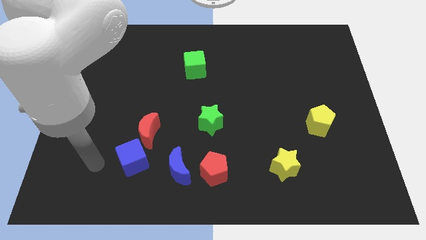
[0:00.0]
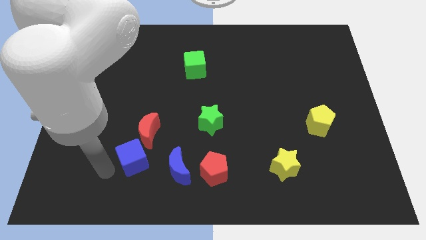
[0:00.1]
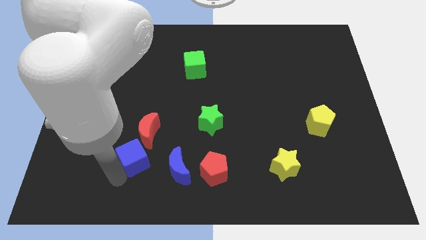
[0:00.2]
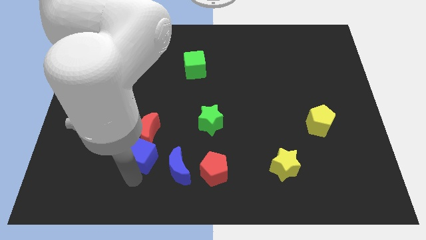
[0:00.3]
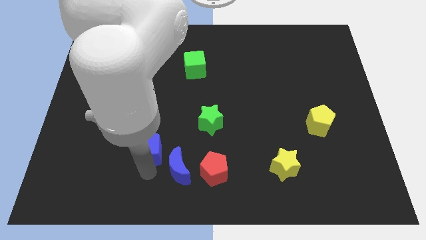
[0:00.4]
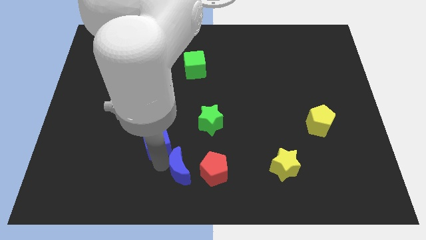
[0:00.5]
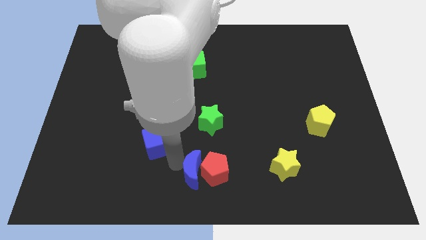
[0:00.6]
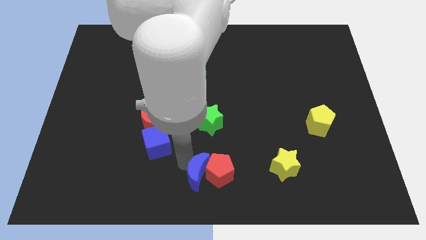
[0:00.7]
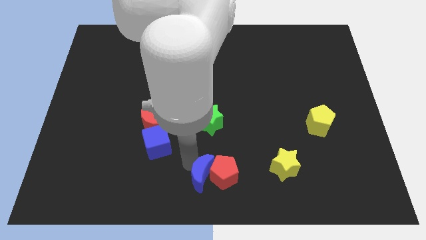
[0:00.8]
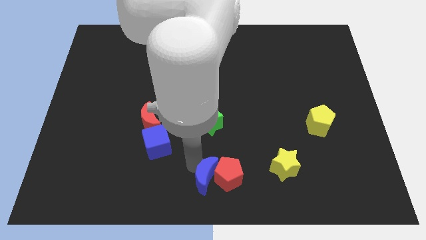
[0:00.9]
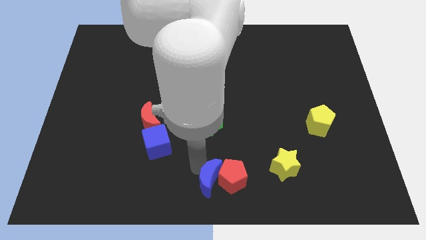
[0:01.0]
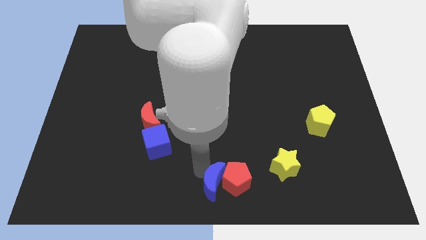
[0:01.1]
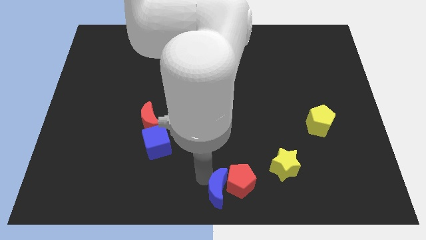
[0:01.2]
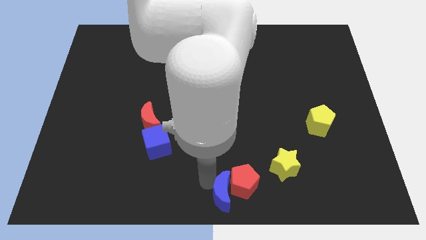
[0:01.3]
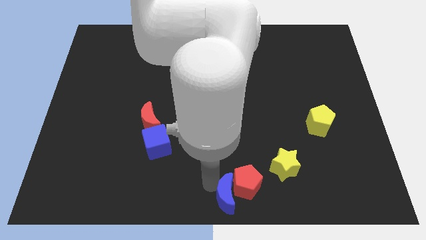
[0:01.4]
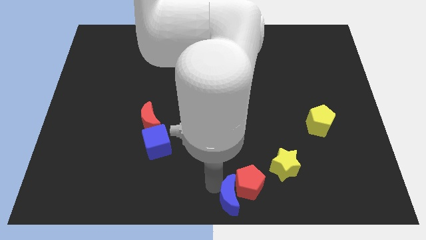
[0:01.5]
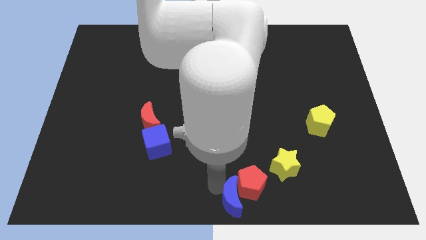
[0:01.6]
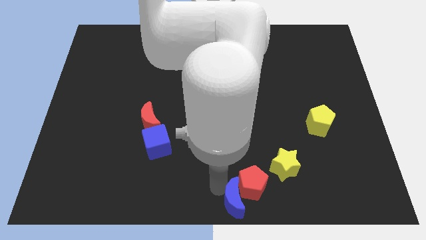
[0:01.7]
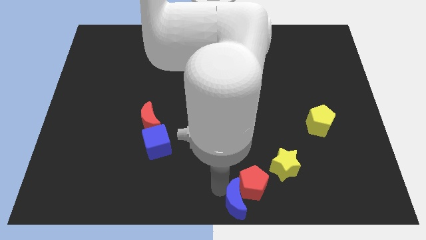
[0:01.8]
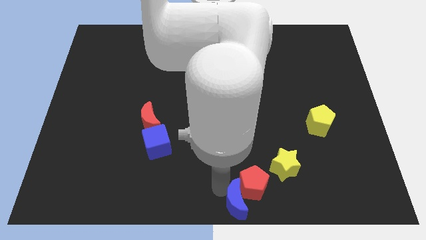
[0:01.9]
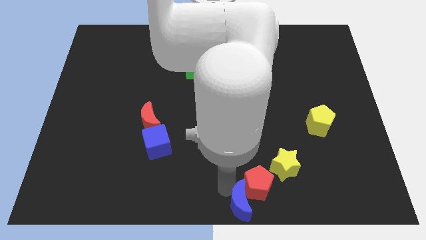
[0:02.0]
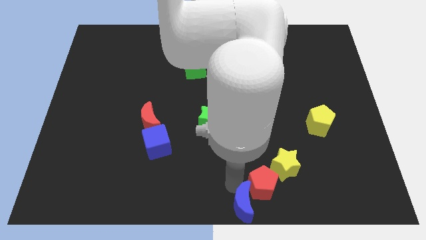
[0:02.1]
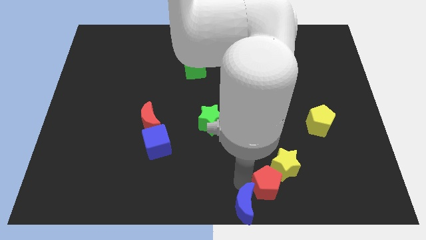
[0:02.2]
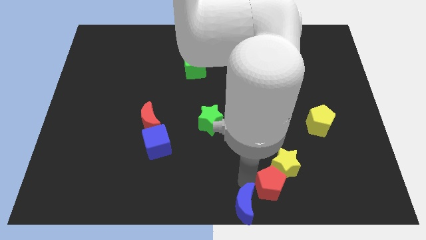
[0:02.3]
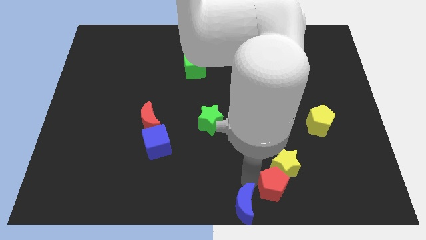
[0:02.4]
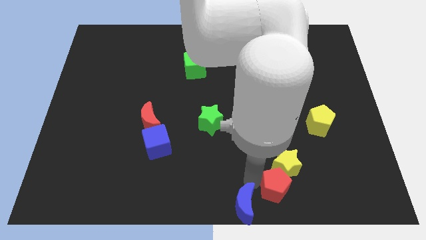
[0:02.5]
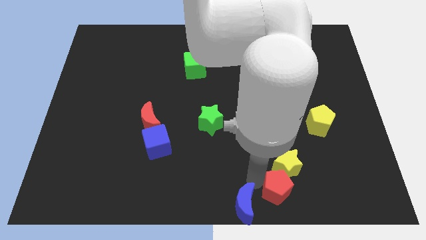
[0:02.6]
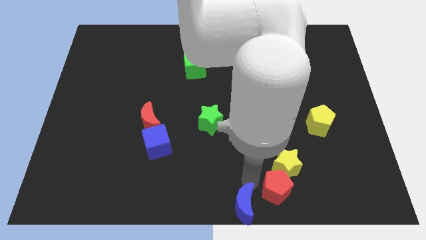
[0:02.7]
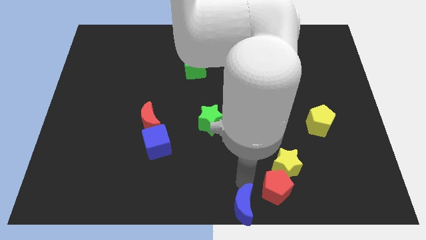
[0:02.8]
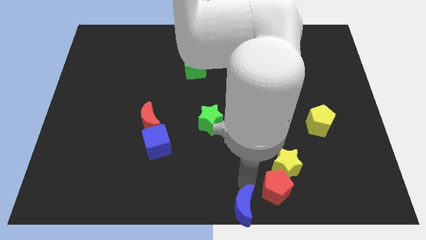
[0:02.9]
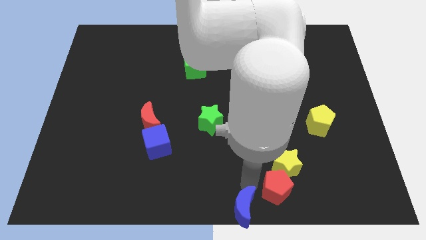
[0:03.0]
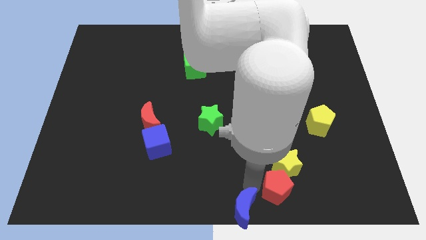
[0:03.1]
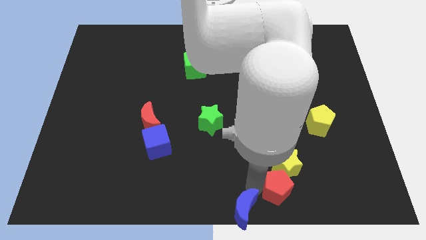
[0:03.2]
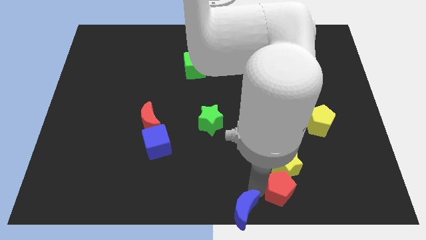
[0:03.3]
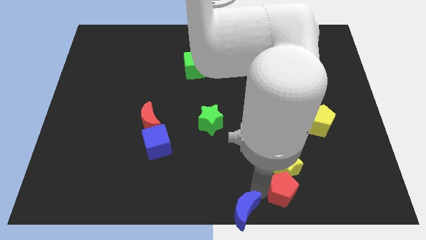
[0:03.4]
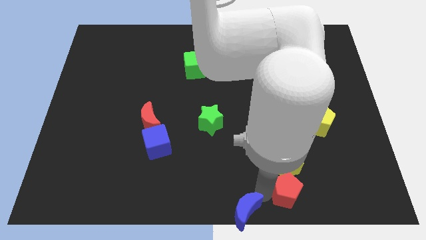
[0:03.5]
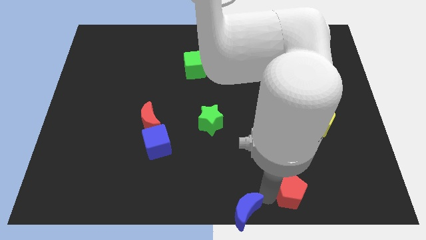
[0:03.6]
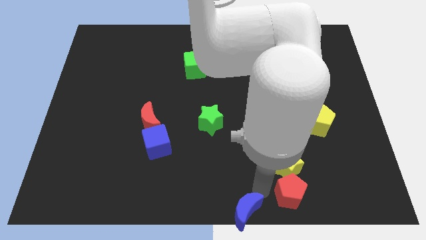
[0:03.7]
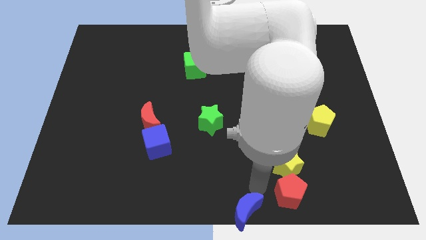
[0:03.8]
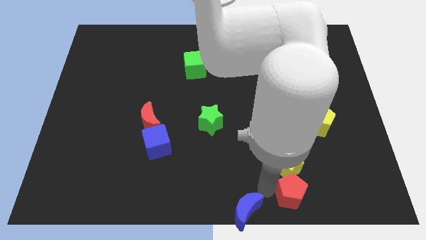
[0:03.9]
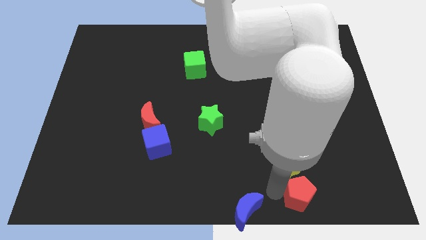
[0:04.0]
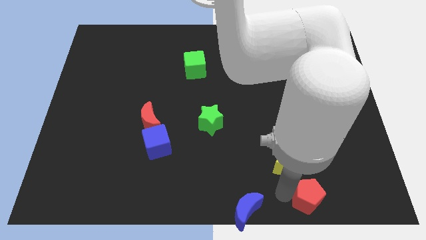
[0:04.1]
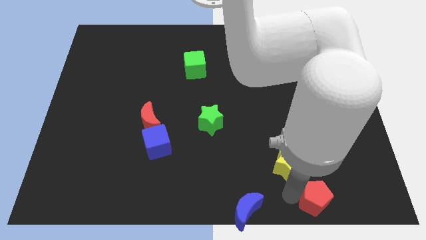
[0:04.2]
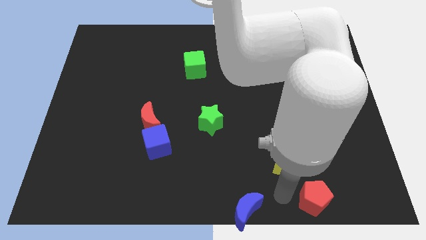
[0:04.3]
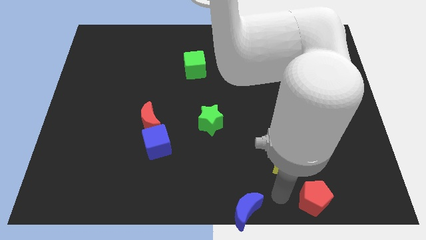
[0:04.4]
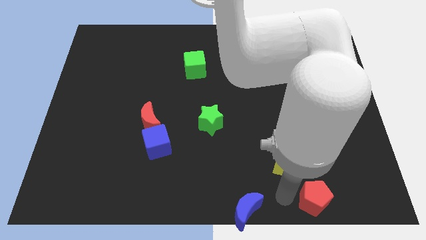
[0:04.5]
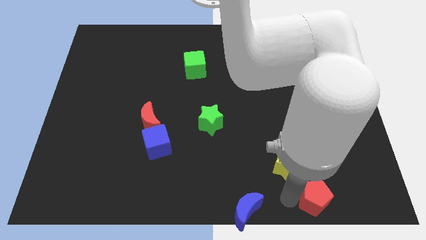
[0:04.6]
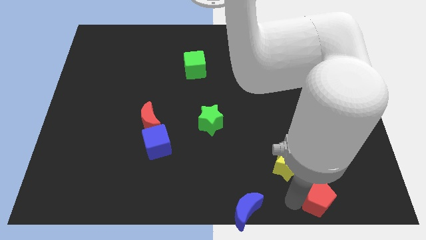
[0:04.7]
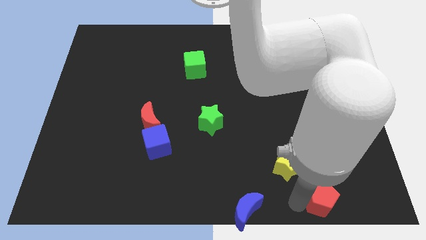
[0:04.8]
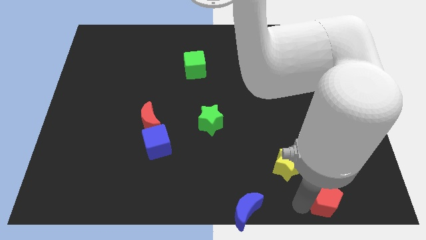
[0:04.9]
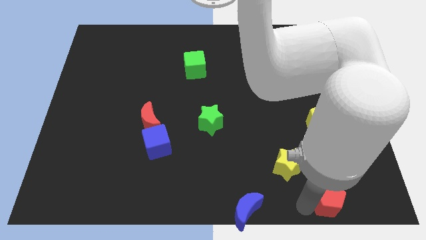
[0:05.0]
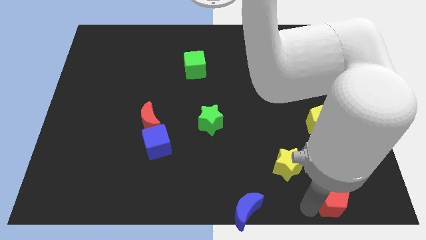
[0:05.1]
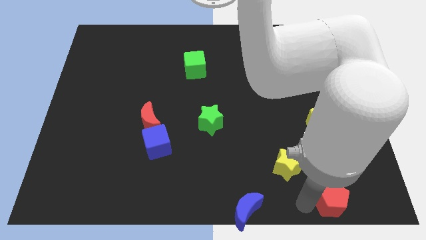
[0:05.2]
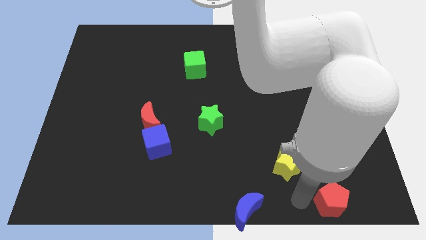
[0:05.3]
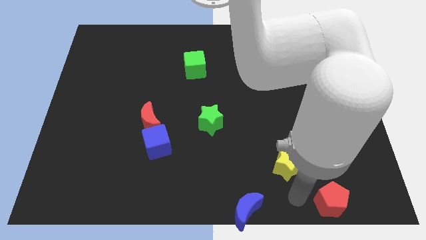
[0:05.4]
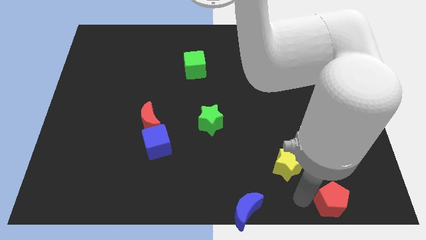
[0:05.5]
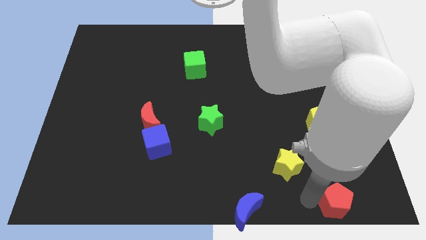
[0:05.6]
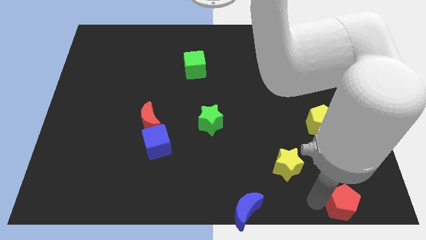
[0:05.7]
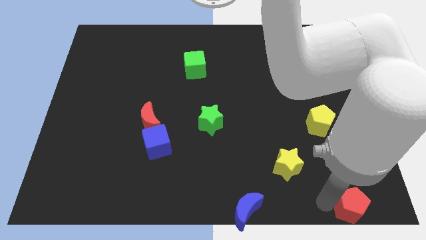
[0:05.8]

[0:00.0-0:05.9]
move the red pentagon to the bottom right corner
